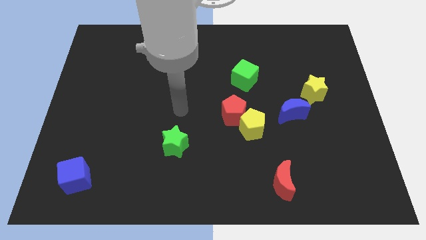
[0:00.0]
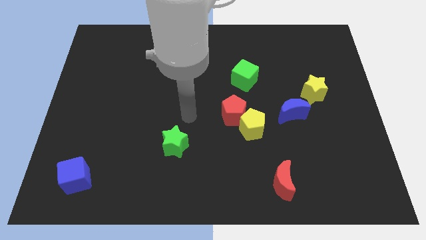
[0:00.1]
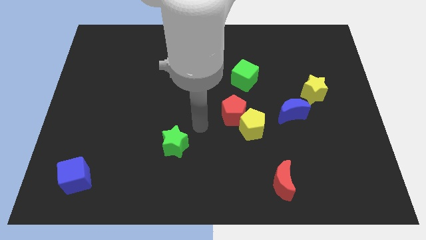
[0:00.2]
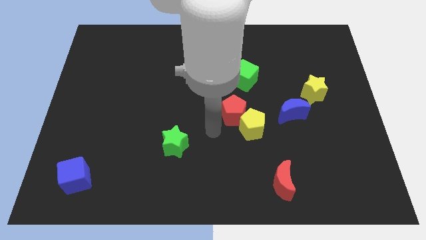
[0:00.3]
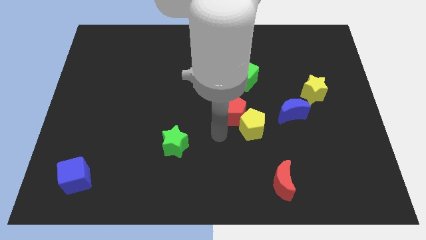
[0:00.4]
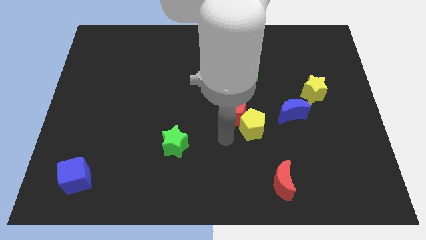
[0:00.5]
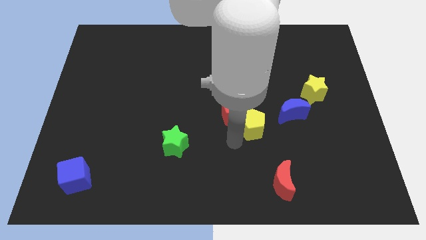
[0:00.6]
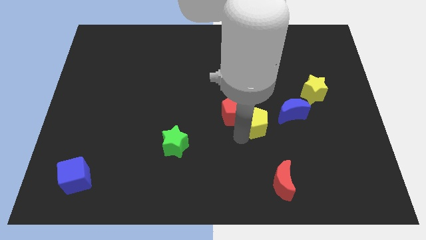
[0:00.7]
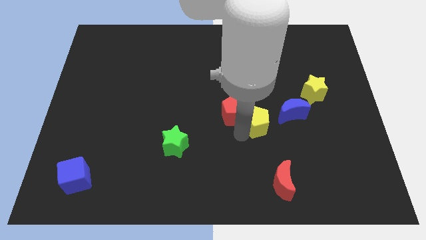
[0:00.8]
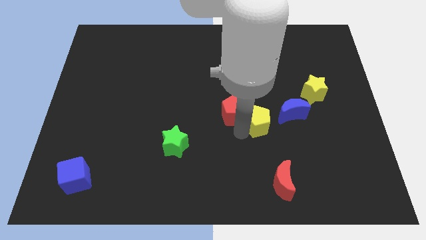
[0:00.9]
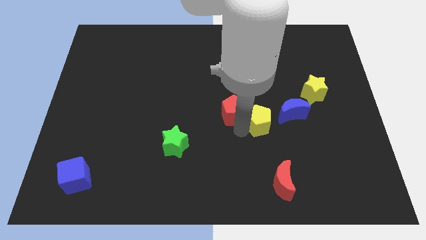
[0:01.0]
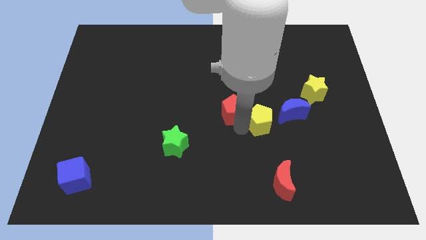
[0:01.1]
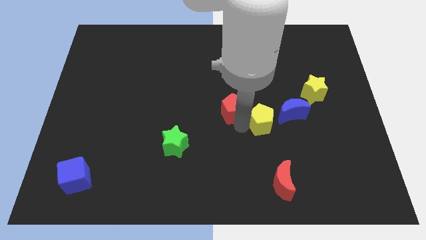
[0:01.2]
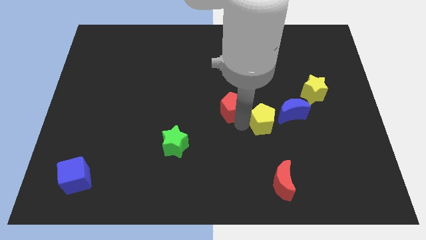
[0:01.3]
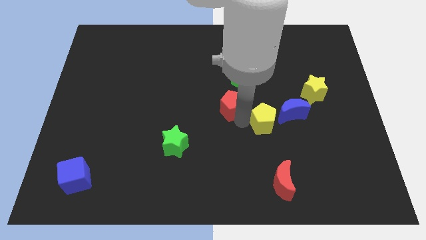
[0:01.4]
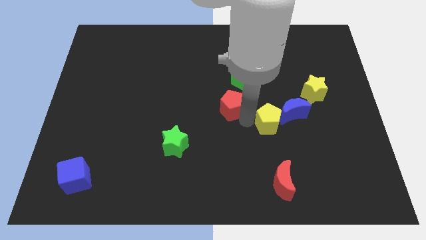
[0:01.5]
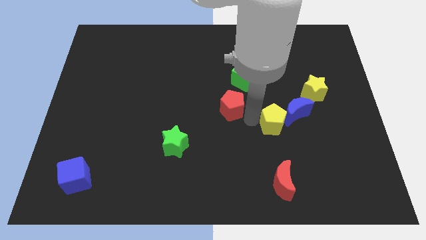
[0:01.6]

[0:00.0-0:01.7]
move the red pentagon away from the yellow pentagon

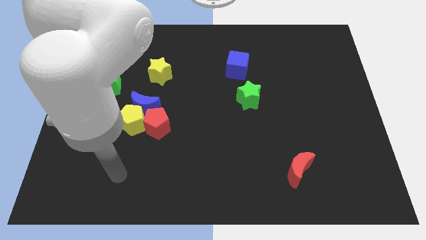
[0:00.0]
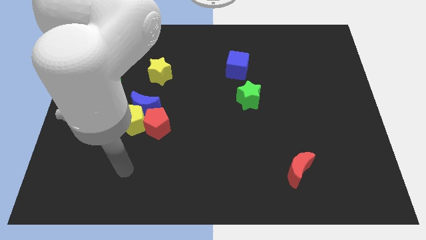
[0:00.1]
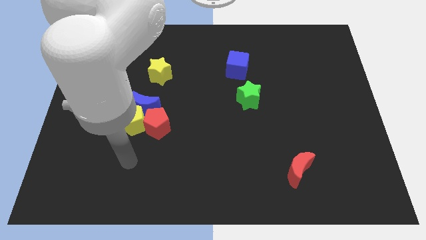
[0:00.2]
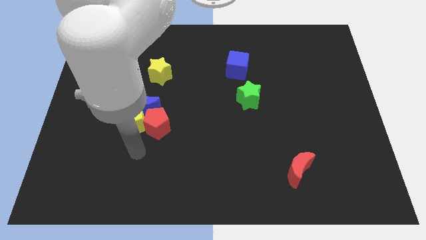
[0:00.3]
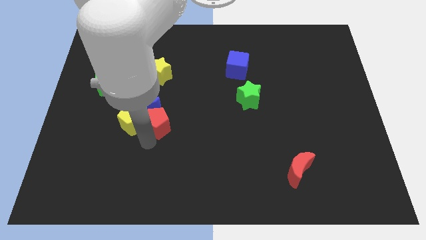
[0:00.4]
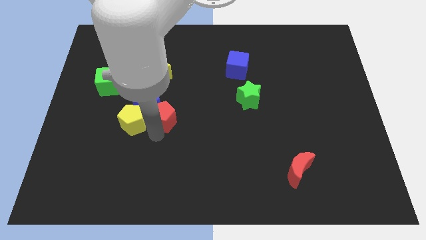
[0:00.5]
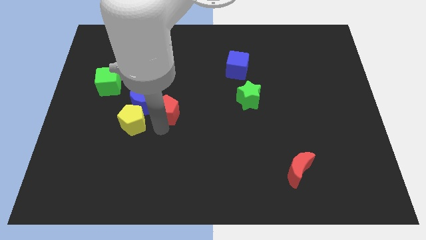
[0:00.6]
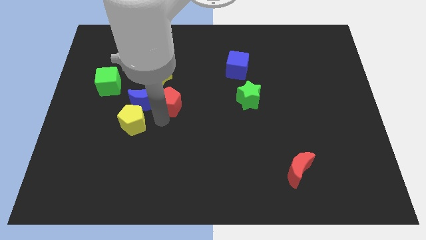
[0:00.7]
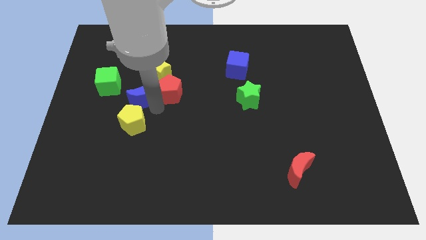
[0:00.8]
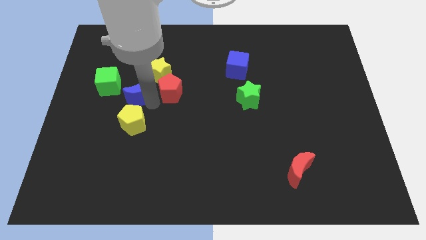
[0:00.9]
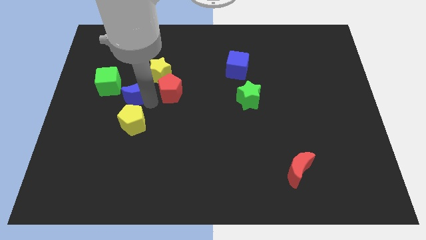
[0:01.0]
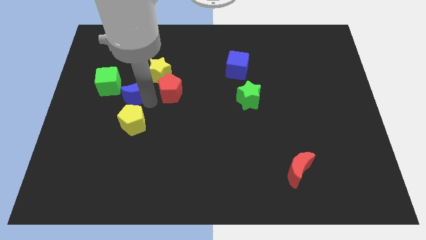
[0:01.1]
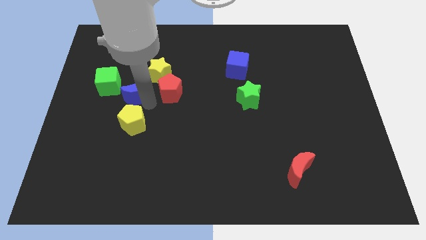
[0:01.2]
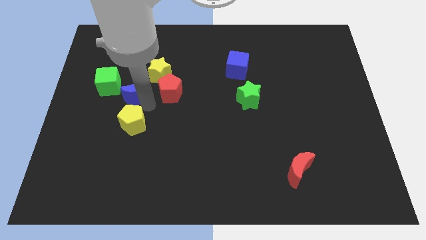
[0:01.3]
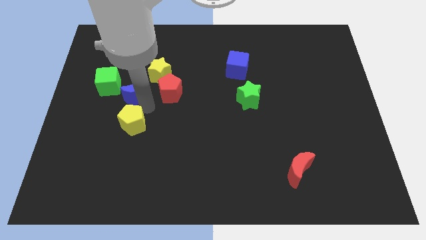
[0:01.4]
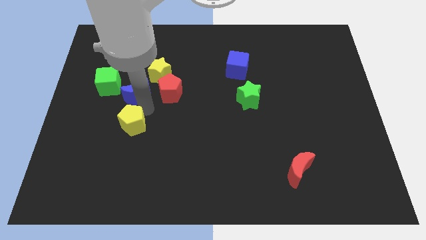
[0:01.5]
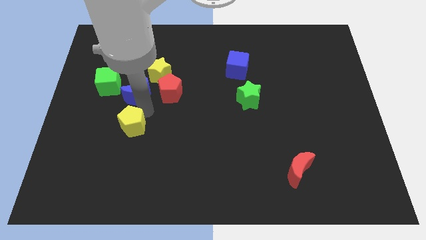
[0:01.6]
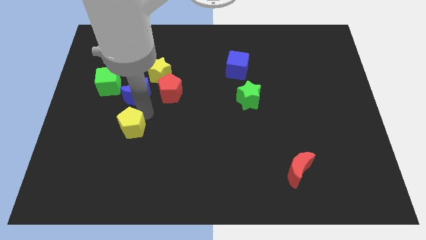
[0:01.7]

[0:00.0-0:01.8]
separate the yellow pentagon from the blue moon and red pentagon

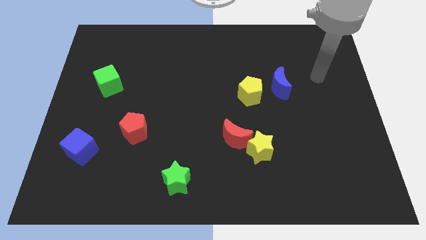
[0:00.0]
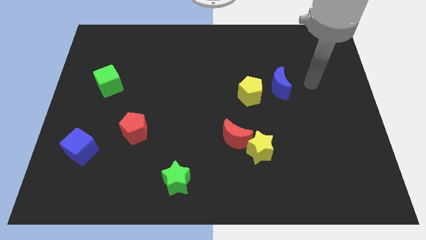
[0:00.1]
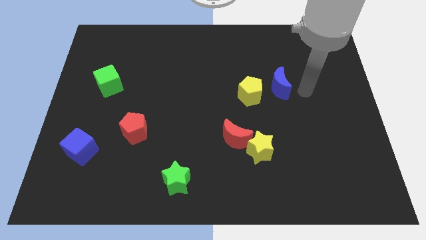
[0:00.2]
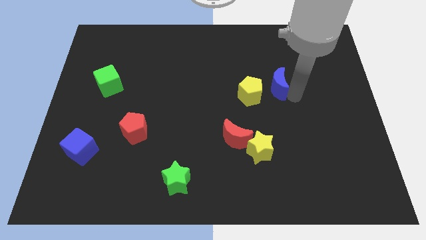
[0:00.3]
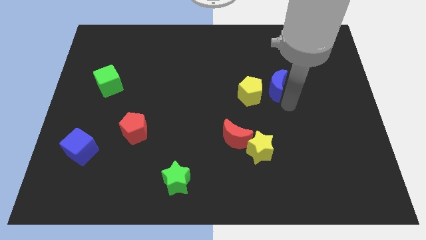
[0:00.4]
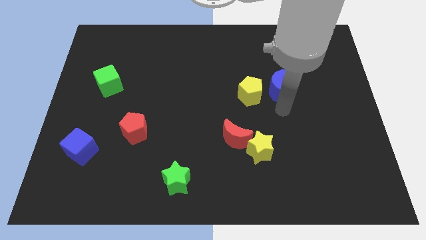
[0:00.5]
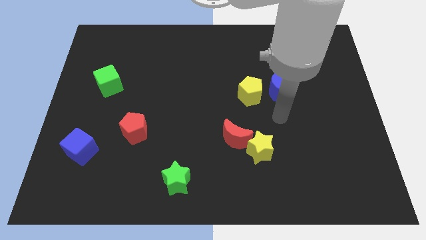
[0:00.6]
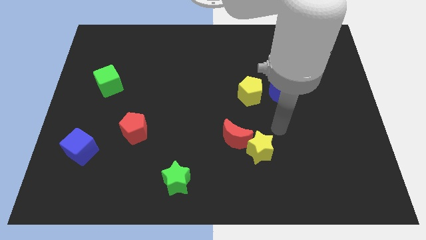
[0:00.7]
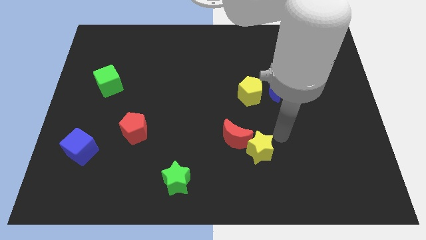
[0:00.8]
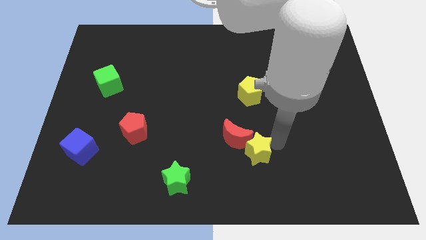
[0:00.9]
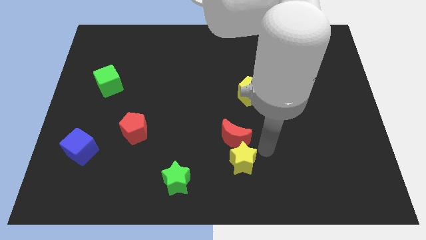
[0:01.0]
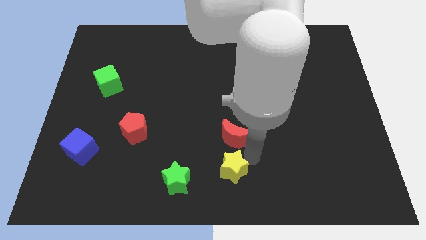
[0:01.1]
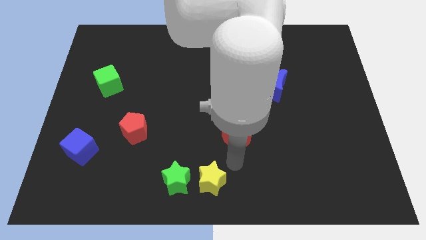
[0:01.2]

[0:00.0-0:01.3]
pull the red moon apart from the yellow star

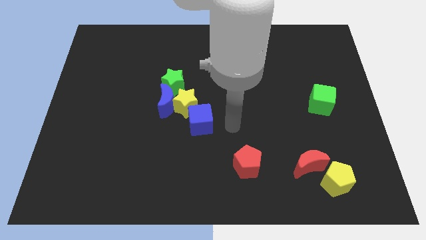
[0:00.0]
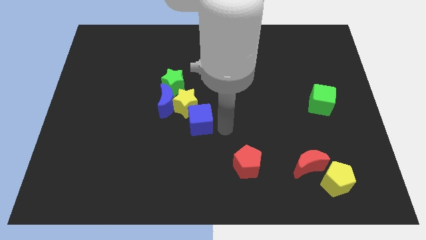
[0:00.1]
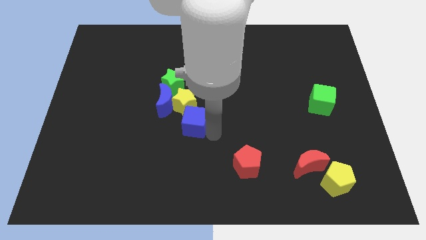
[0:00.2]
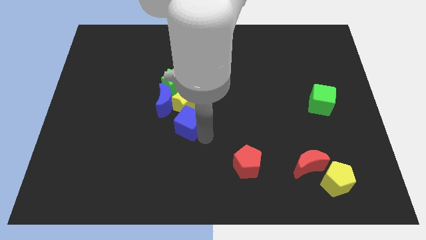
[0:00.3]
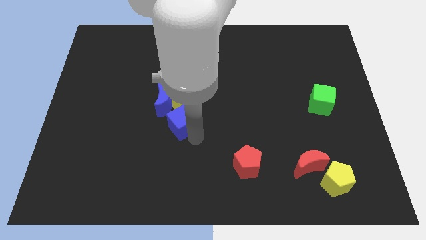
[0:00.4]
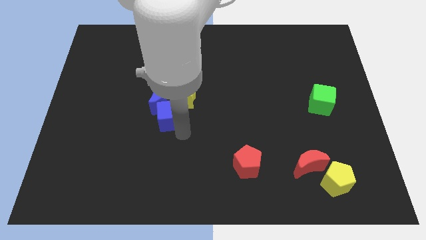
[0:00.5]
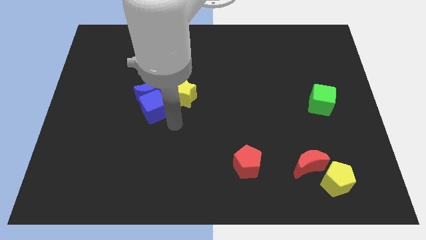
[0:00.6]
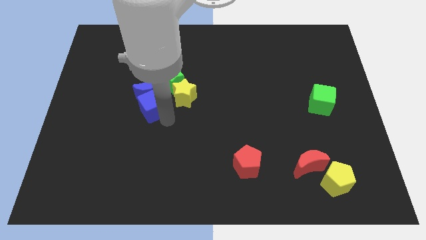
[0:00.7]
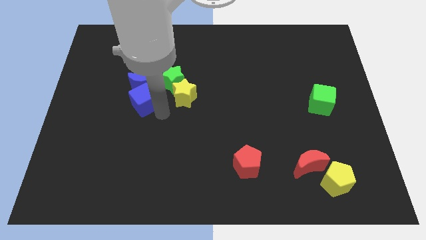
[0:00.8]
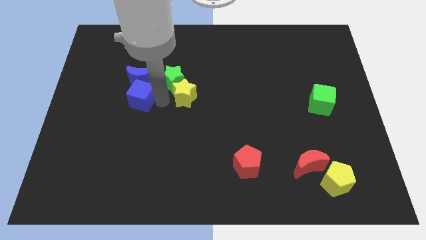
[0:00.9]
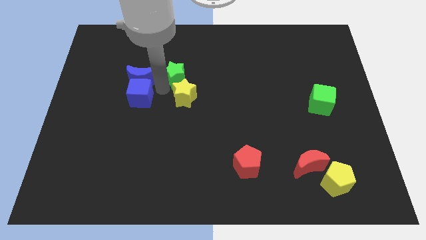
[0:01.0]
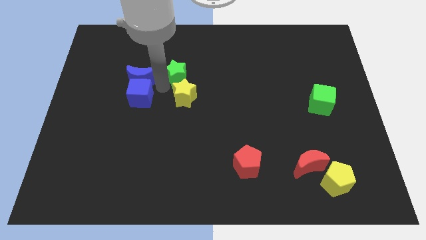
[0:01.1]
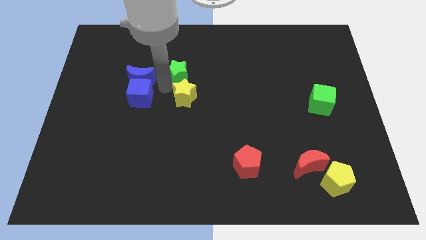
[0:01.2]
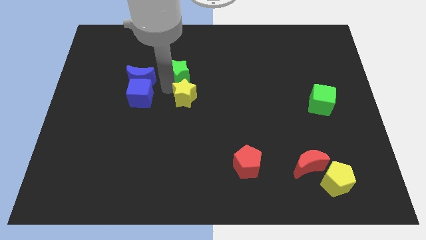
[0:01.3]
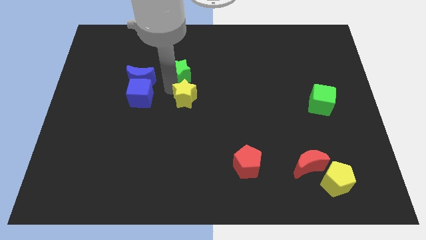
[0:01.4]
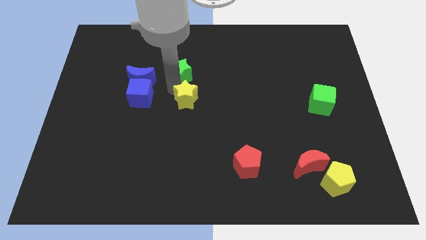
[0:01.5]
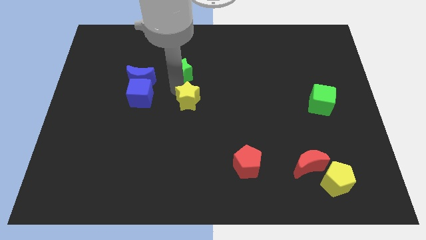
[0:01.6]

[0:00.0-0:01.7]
pull the yellow star apart from the blue moon, blue cube, and green star

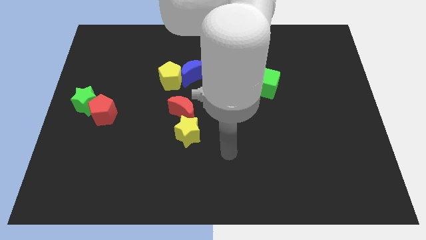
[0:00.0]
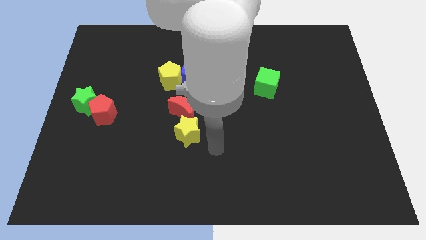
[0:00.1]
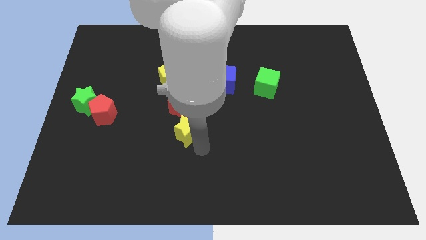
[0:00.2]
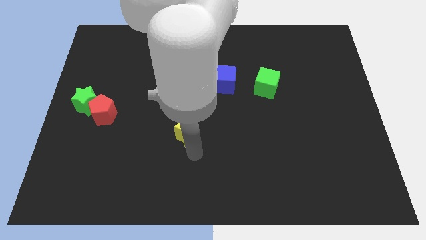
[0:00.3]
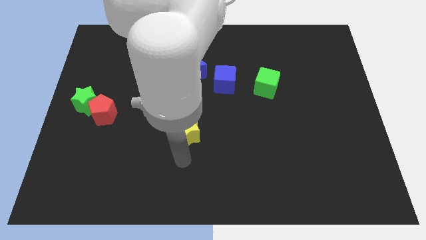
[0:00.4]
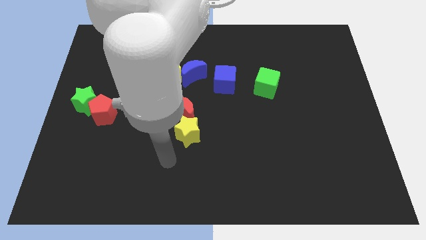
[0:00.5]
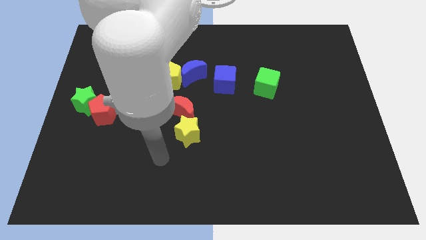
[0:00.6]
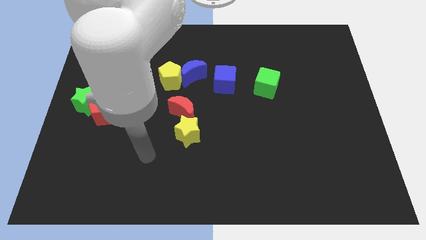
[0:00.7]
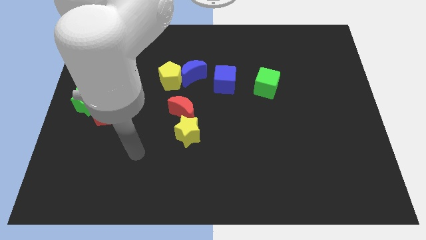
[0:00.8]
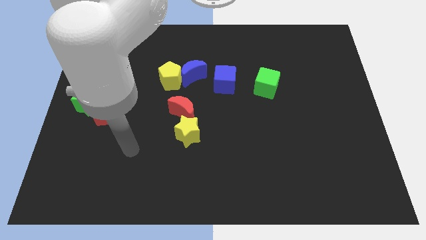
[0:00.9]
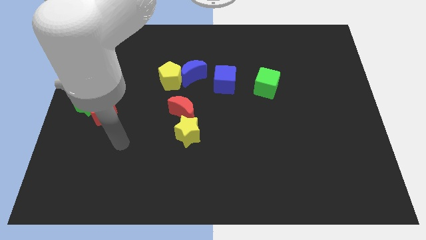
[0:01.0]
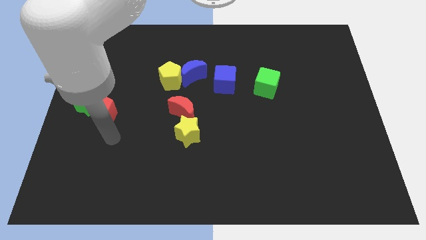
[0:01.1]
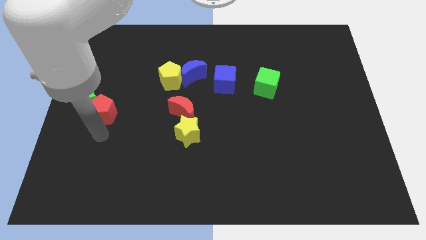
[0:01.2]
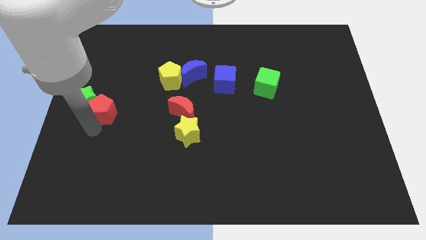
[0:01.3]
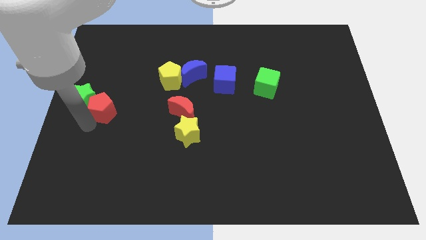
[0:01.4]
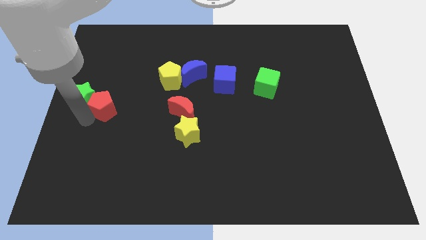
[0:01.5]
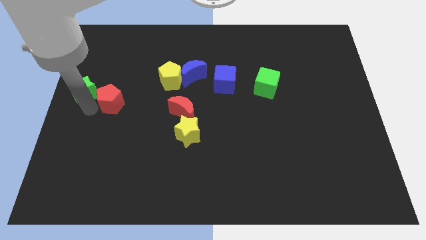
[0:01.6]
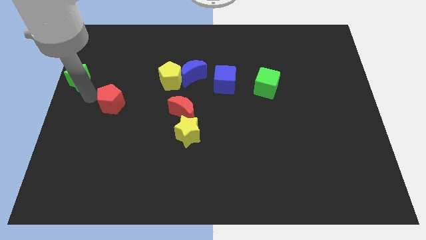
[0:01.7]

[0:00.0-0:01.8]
pull the red pentagon apart from the green star

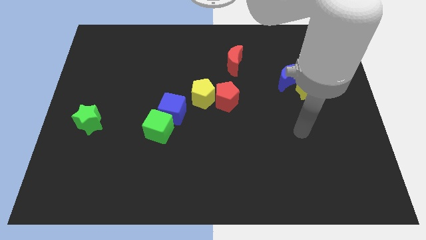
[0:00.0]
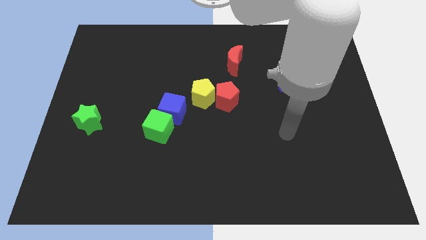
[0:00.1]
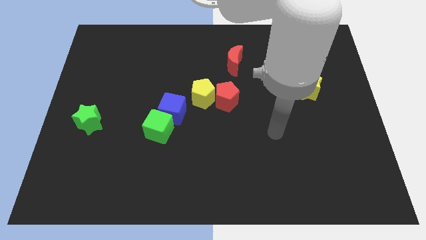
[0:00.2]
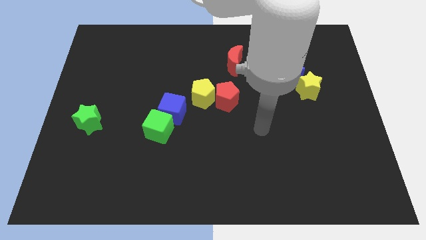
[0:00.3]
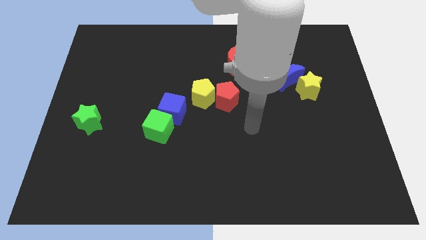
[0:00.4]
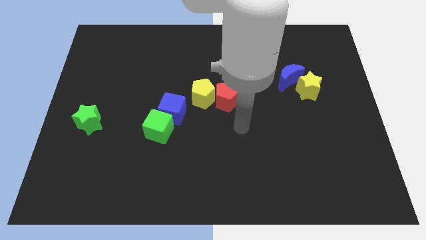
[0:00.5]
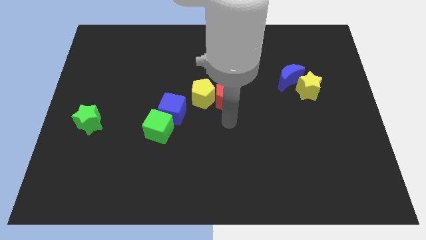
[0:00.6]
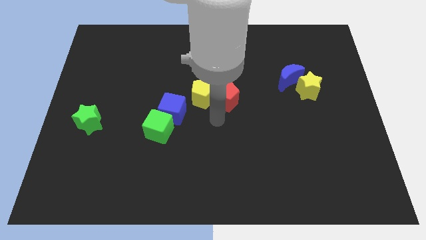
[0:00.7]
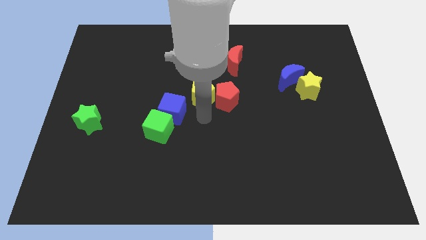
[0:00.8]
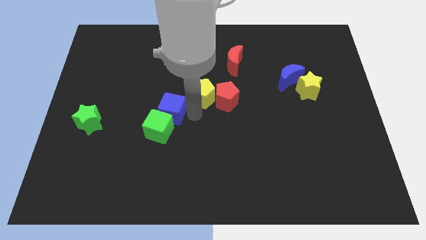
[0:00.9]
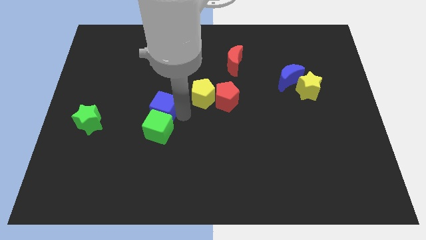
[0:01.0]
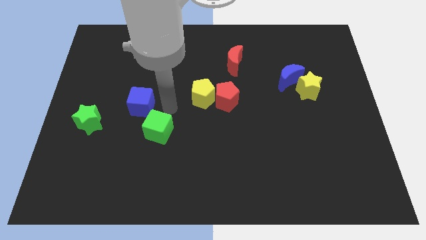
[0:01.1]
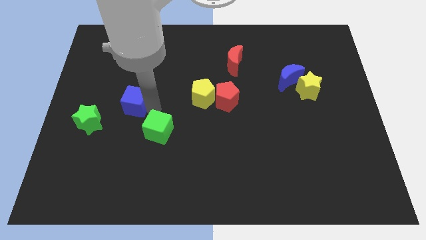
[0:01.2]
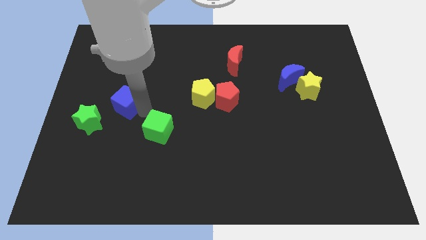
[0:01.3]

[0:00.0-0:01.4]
move the green cube away from the blue cube
